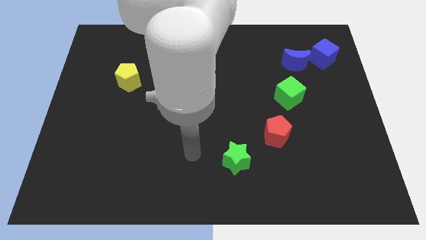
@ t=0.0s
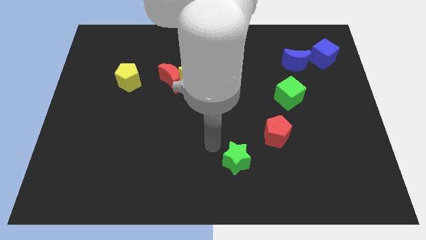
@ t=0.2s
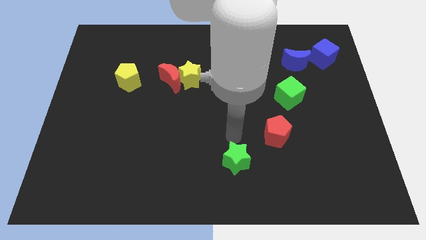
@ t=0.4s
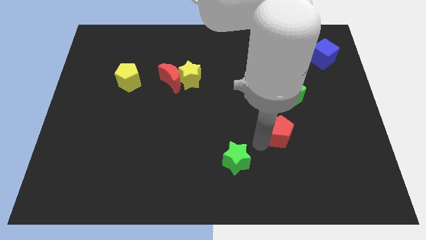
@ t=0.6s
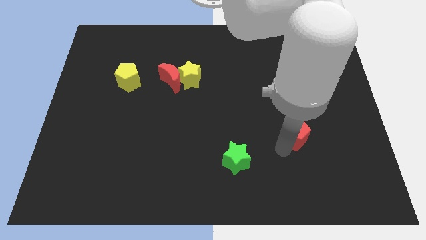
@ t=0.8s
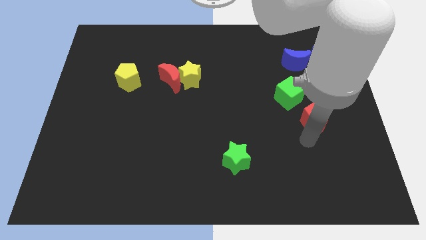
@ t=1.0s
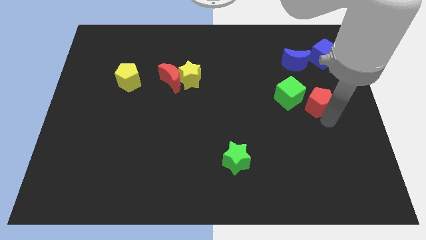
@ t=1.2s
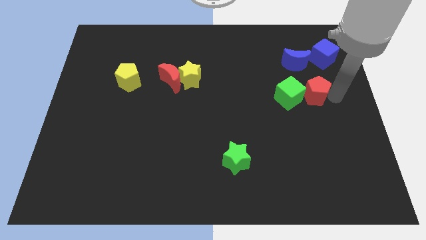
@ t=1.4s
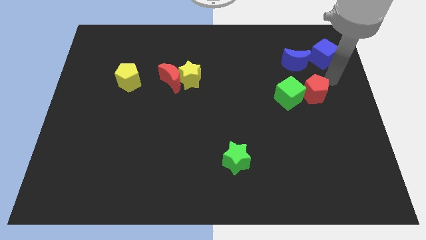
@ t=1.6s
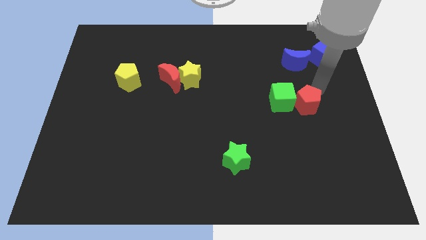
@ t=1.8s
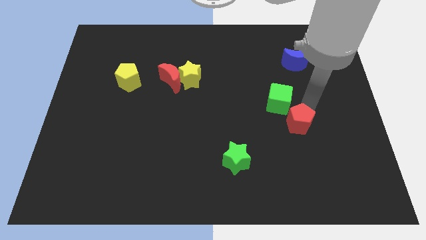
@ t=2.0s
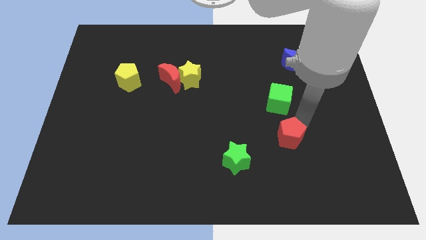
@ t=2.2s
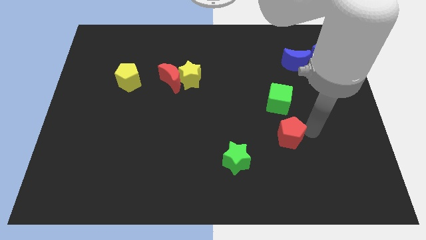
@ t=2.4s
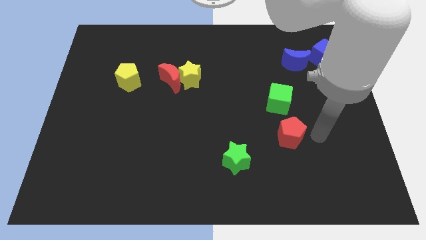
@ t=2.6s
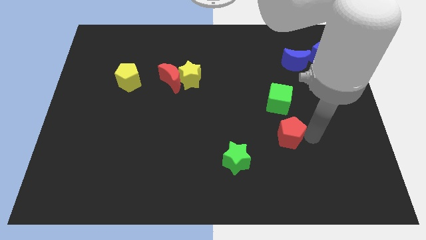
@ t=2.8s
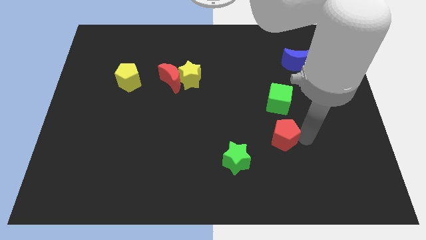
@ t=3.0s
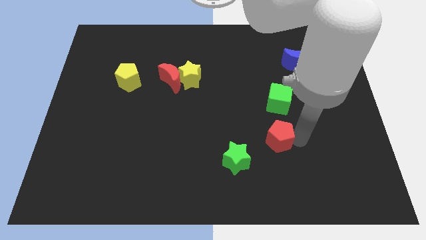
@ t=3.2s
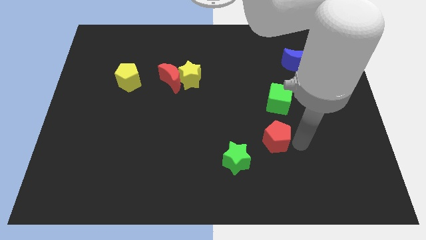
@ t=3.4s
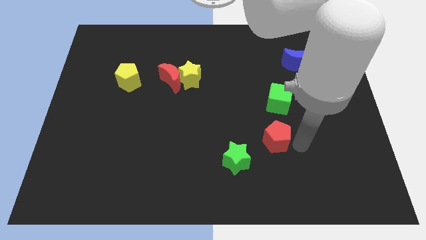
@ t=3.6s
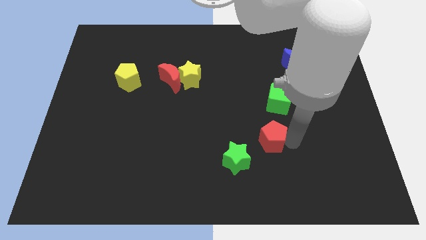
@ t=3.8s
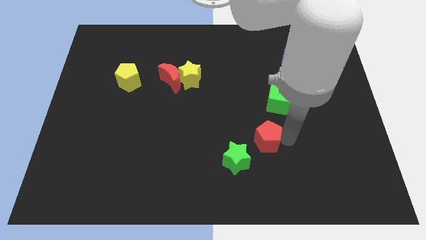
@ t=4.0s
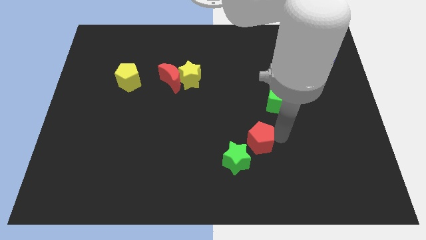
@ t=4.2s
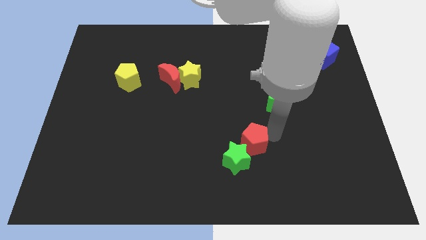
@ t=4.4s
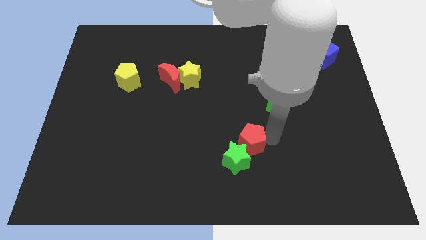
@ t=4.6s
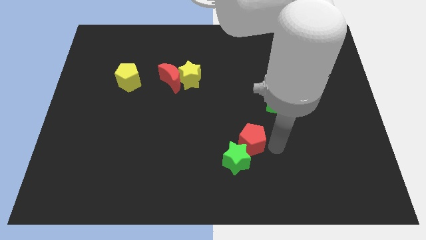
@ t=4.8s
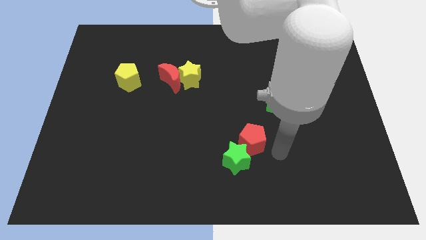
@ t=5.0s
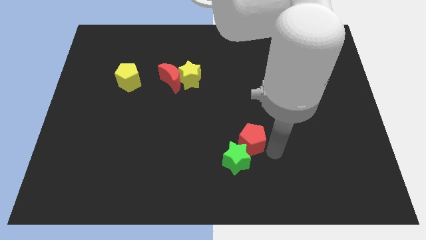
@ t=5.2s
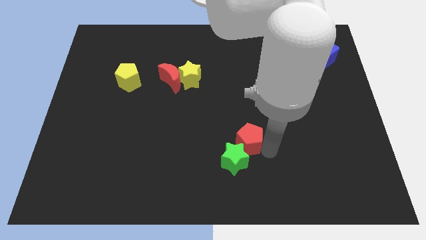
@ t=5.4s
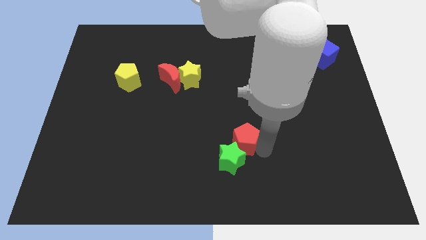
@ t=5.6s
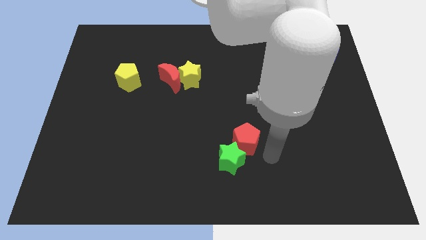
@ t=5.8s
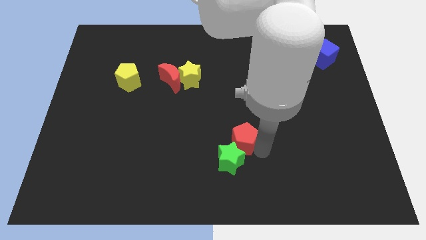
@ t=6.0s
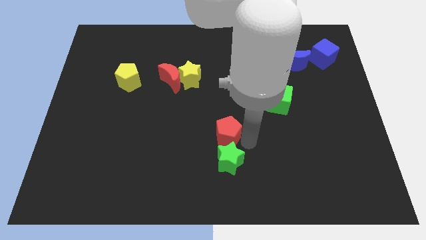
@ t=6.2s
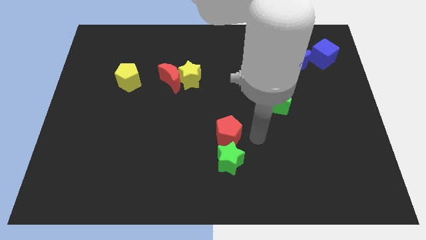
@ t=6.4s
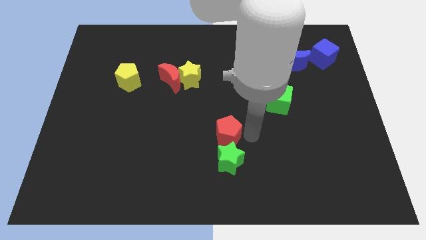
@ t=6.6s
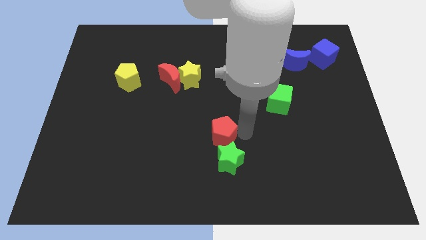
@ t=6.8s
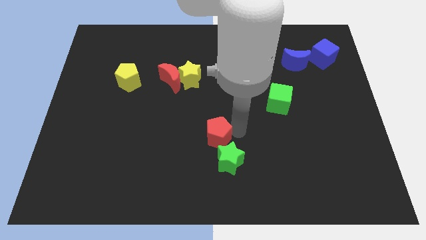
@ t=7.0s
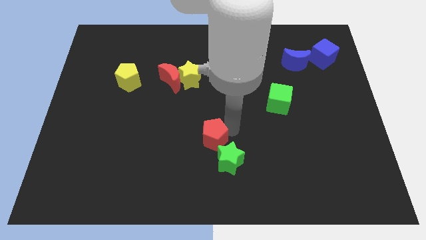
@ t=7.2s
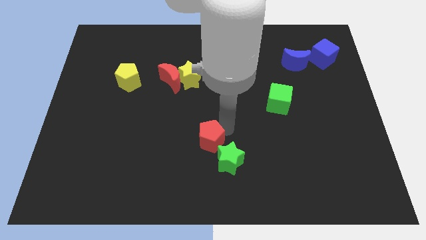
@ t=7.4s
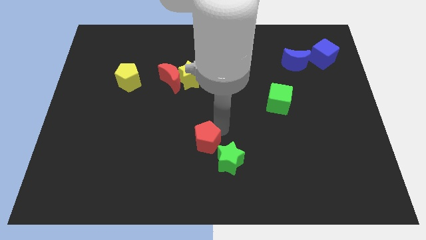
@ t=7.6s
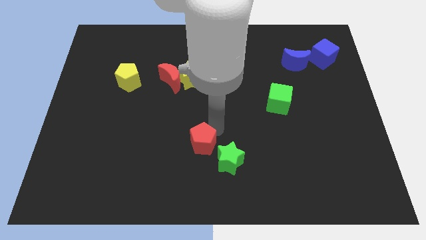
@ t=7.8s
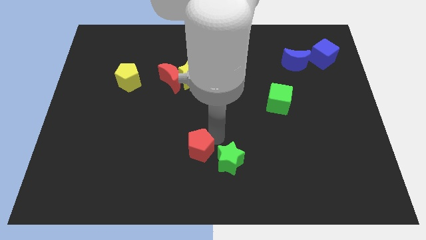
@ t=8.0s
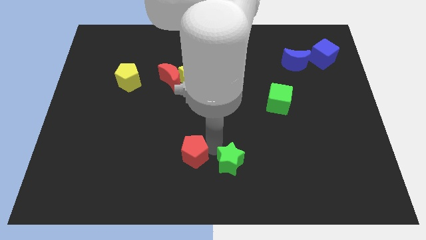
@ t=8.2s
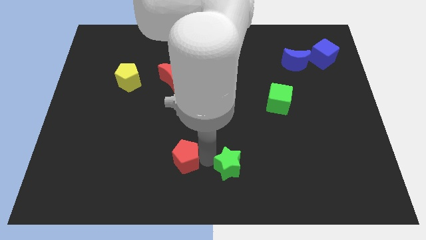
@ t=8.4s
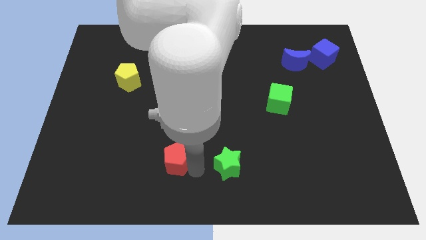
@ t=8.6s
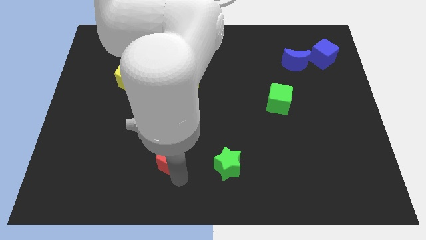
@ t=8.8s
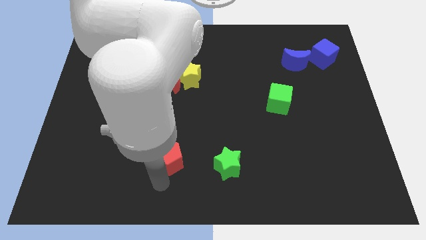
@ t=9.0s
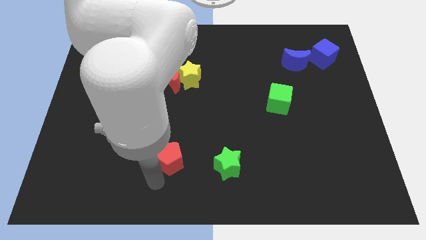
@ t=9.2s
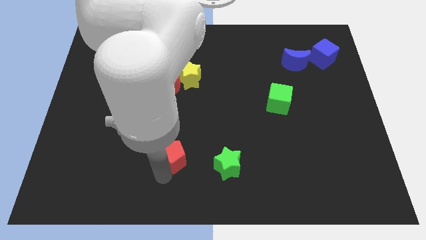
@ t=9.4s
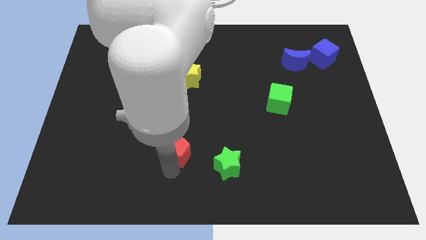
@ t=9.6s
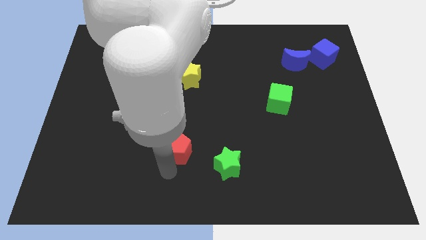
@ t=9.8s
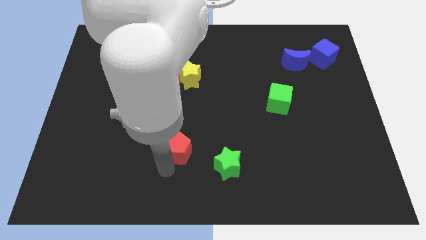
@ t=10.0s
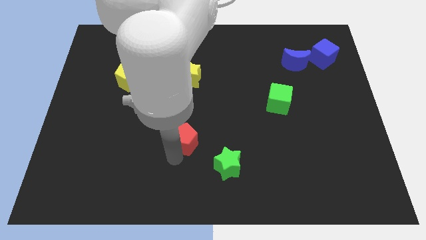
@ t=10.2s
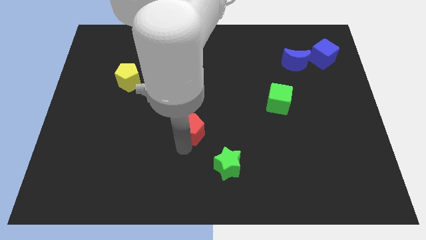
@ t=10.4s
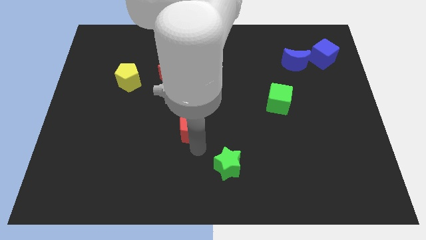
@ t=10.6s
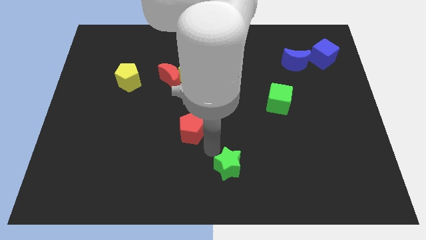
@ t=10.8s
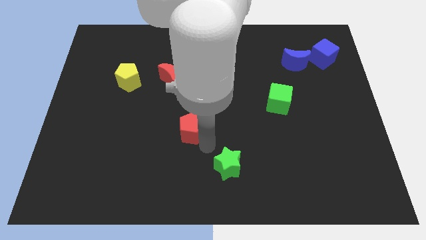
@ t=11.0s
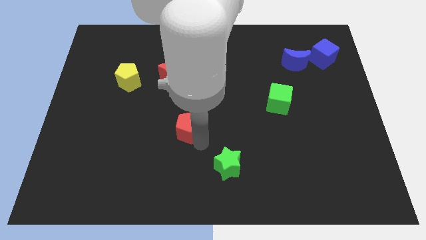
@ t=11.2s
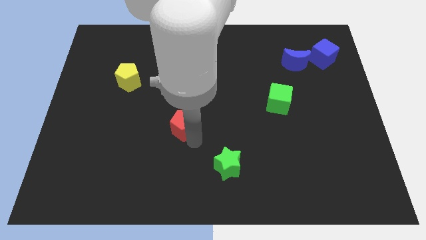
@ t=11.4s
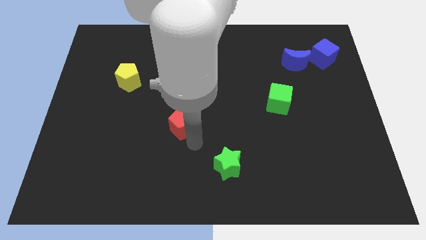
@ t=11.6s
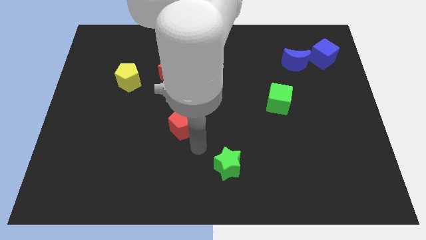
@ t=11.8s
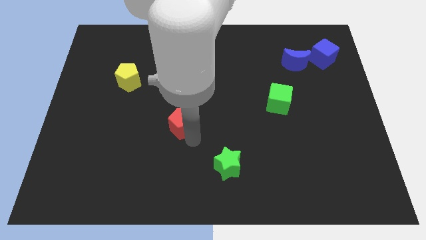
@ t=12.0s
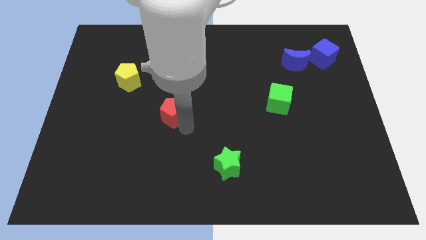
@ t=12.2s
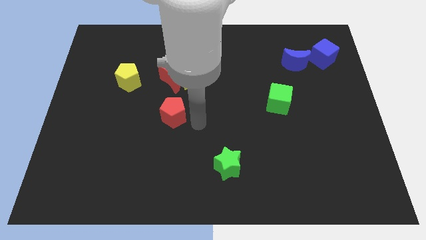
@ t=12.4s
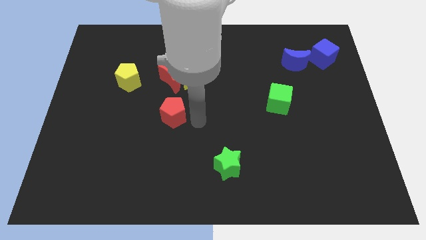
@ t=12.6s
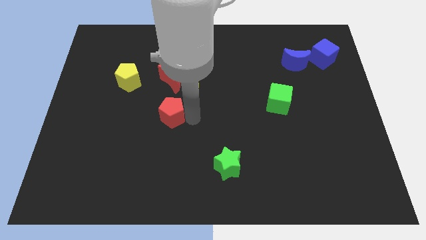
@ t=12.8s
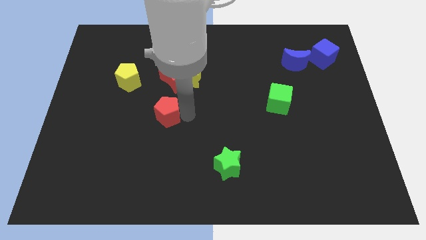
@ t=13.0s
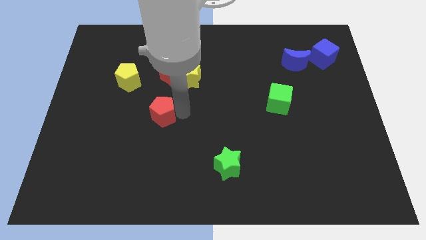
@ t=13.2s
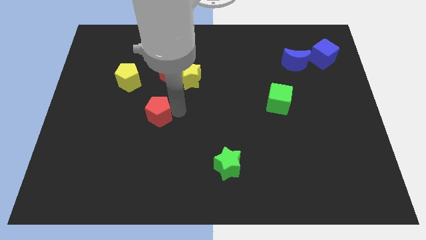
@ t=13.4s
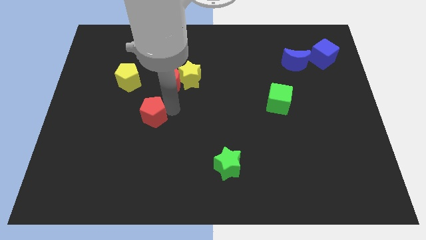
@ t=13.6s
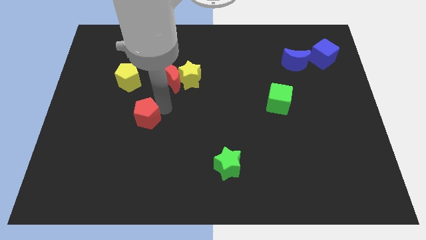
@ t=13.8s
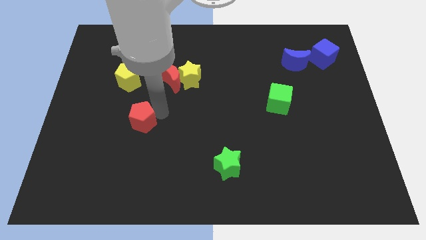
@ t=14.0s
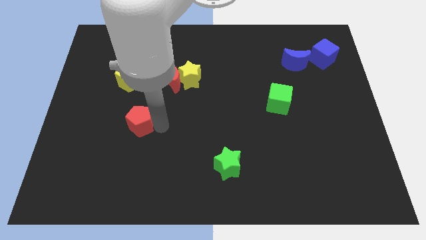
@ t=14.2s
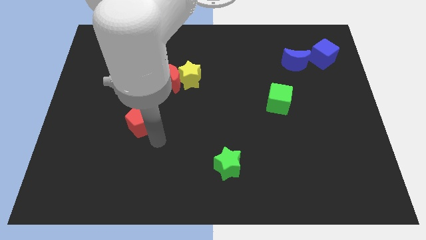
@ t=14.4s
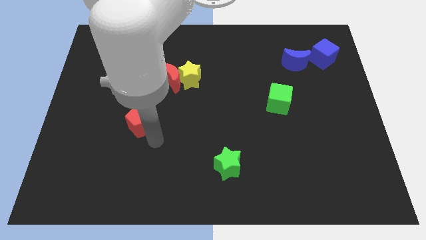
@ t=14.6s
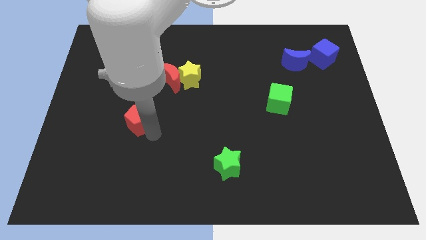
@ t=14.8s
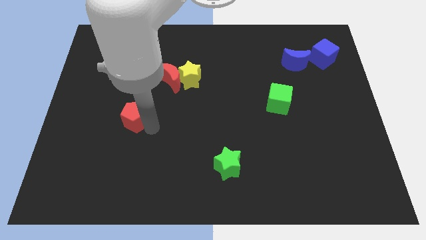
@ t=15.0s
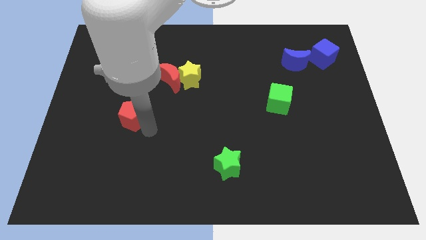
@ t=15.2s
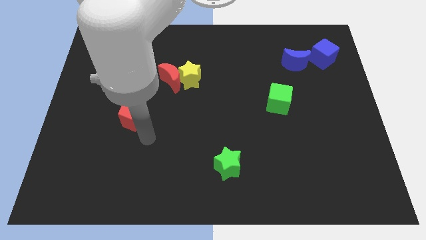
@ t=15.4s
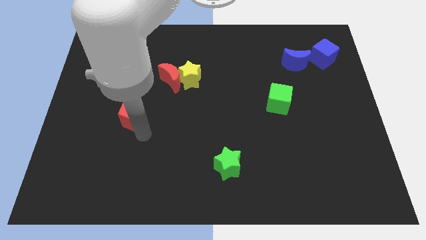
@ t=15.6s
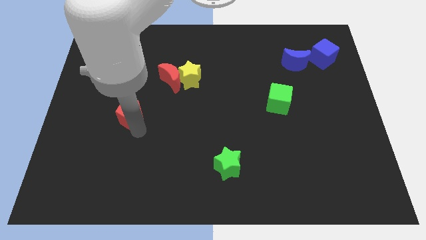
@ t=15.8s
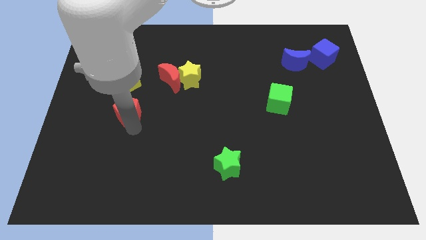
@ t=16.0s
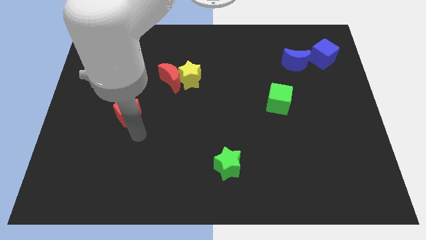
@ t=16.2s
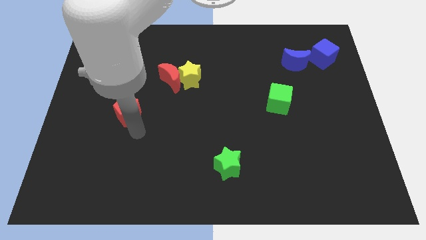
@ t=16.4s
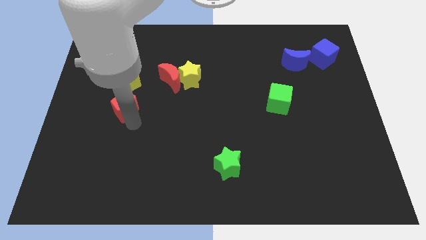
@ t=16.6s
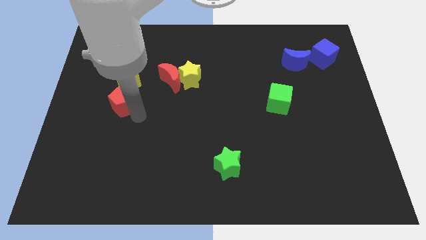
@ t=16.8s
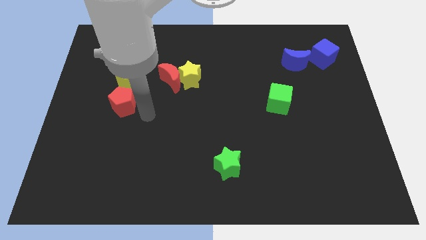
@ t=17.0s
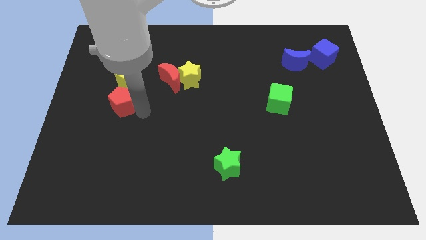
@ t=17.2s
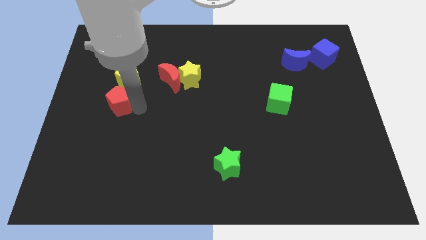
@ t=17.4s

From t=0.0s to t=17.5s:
move the red pentagon to the bottom left of the yellow pentagon
